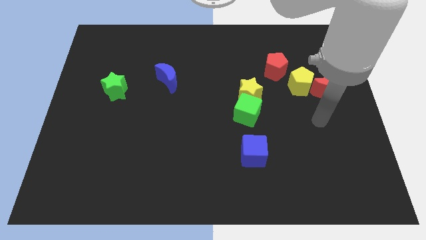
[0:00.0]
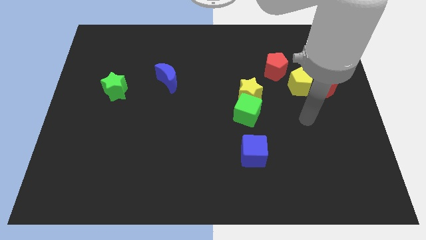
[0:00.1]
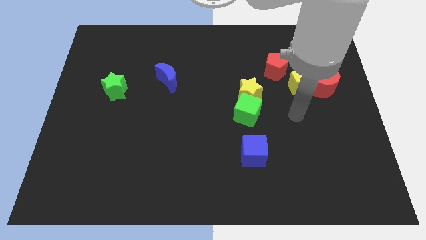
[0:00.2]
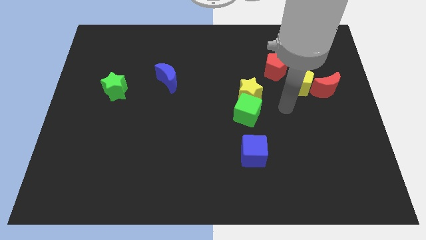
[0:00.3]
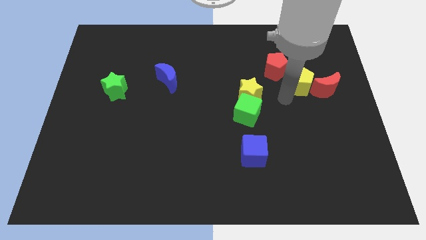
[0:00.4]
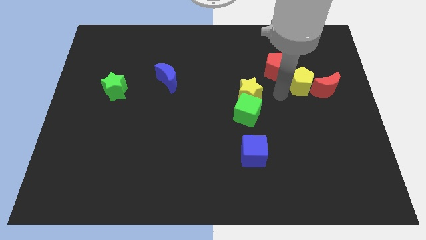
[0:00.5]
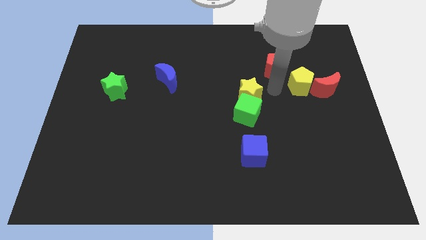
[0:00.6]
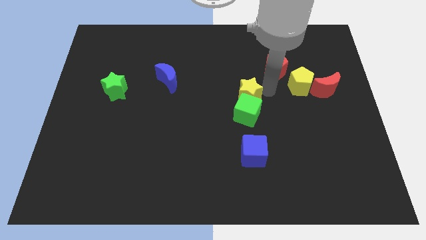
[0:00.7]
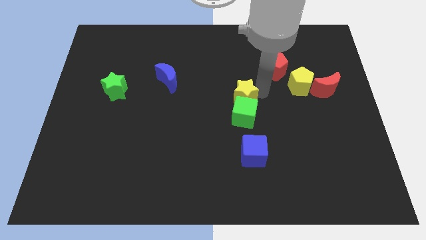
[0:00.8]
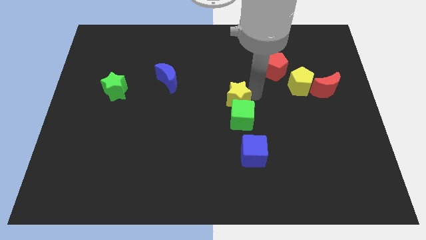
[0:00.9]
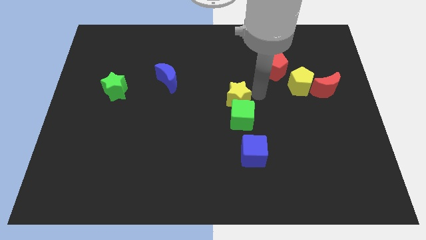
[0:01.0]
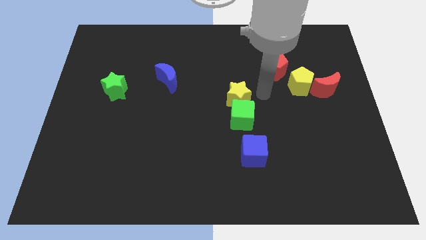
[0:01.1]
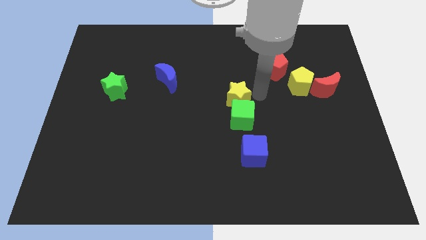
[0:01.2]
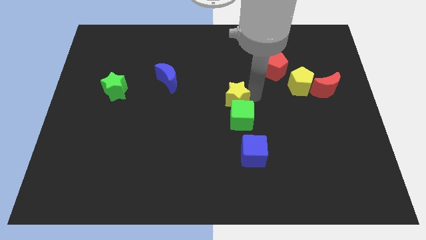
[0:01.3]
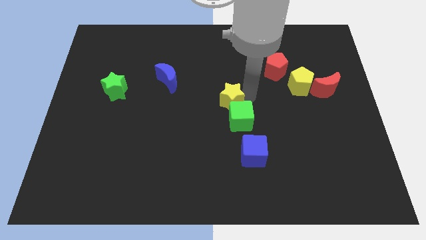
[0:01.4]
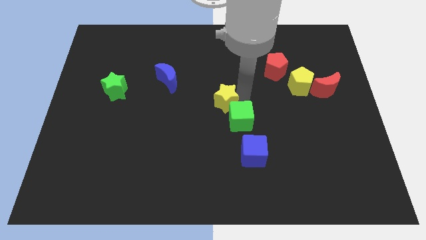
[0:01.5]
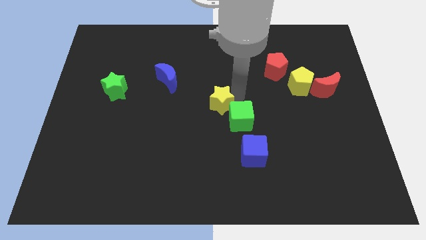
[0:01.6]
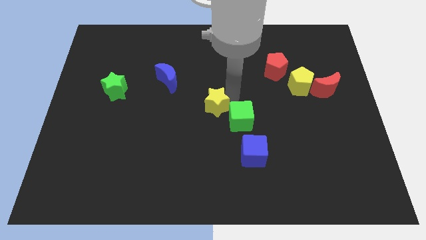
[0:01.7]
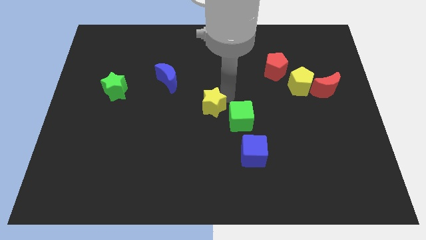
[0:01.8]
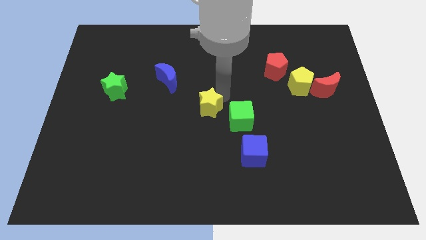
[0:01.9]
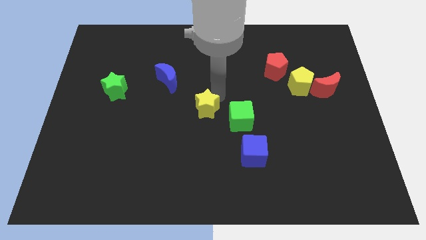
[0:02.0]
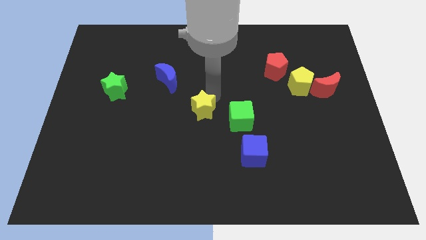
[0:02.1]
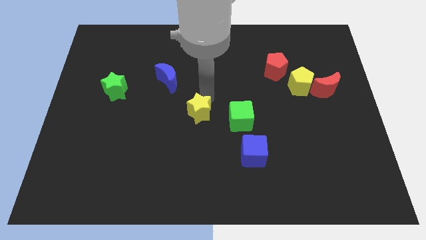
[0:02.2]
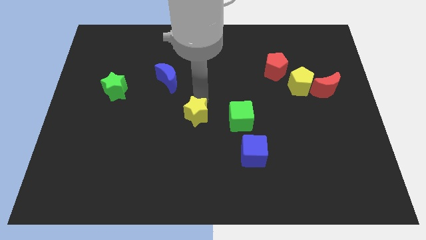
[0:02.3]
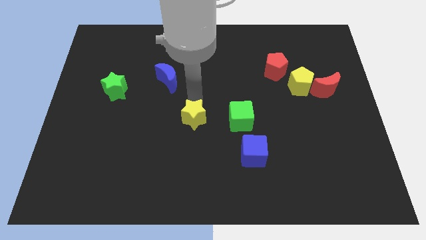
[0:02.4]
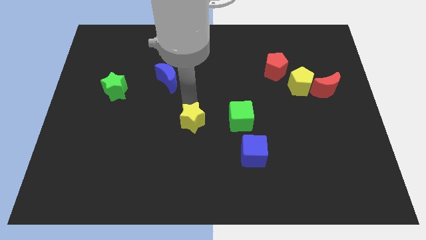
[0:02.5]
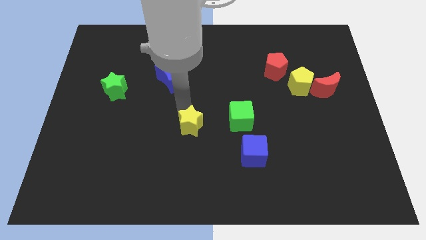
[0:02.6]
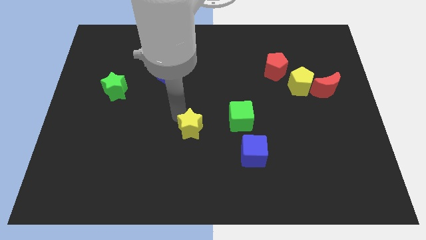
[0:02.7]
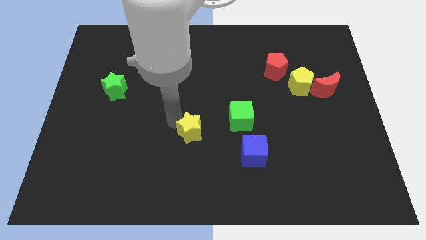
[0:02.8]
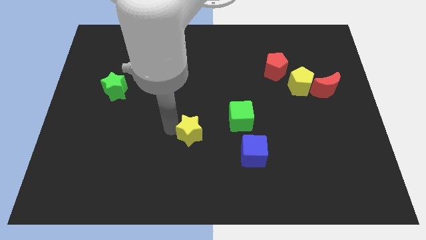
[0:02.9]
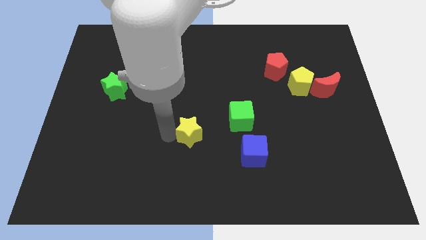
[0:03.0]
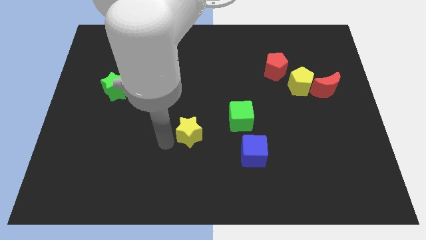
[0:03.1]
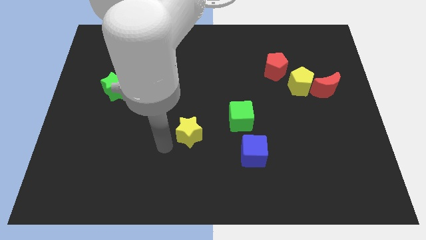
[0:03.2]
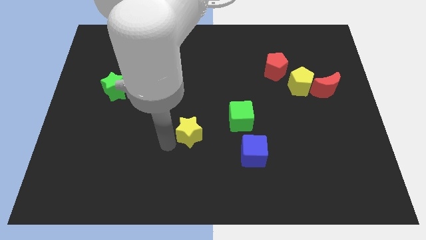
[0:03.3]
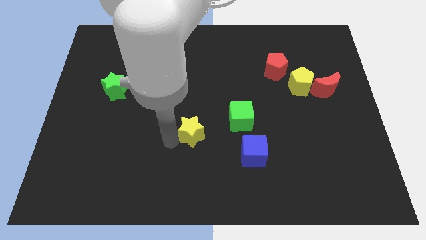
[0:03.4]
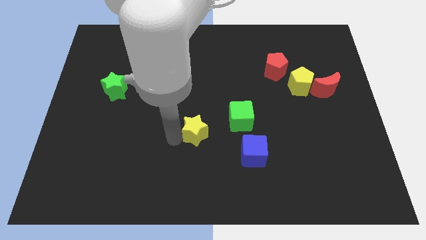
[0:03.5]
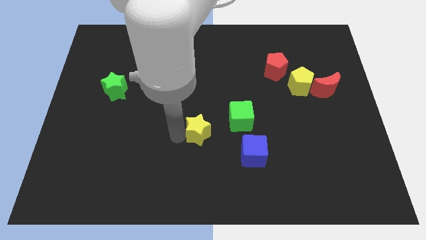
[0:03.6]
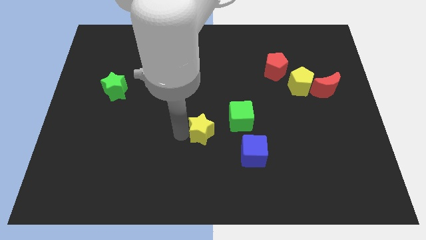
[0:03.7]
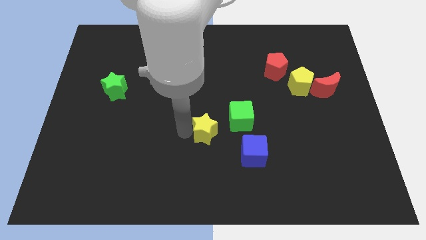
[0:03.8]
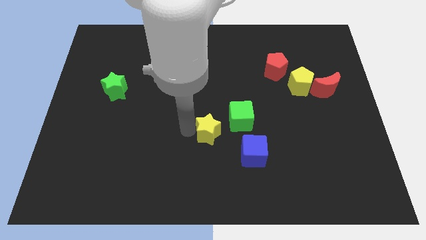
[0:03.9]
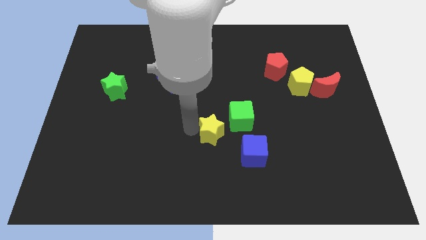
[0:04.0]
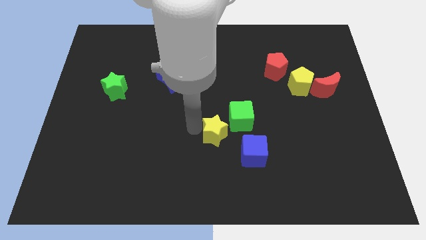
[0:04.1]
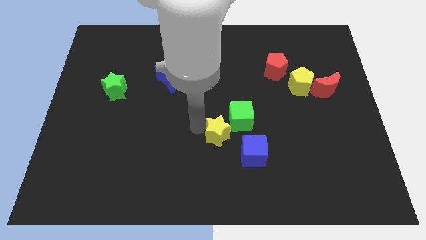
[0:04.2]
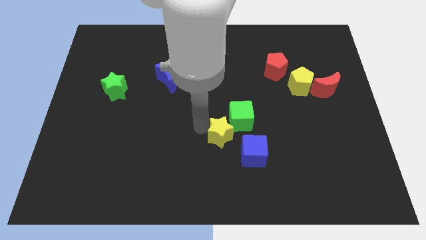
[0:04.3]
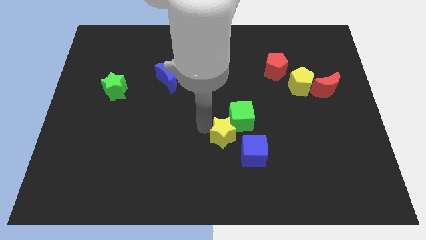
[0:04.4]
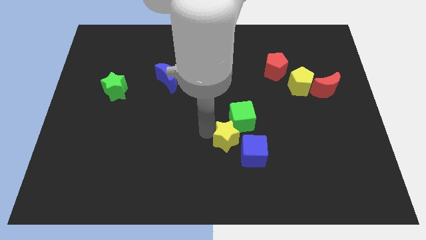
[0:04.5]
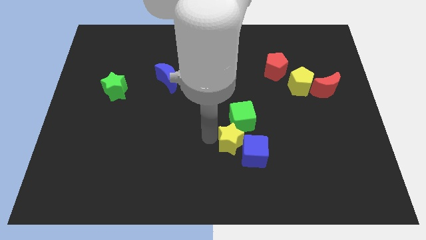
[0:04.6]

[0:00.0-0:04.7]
move the yellow star to the blue cube

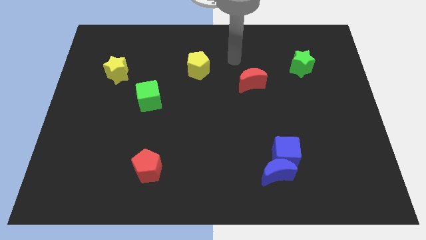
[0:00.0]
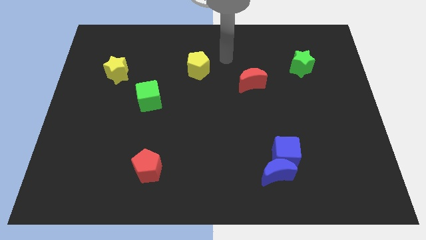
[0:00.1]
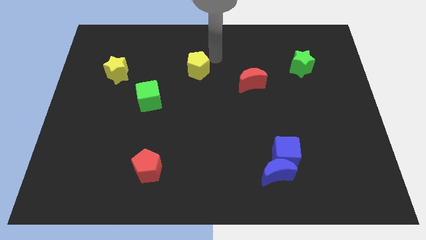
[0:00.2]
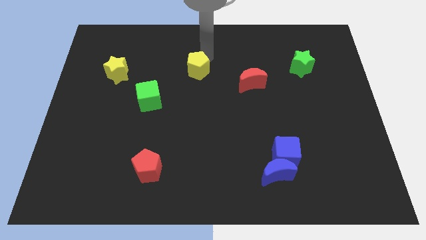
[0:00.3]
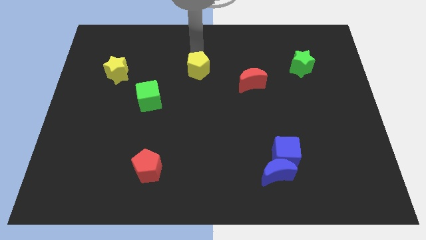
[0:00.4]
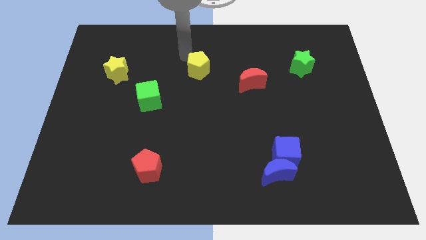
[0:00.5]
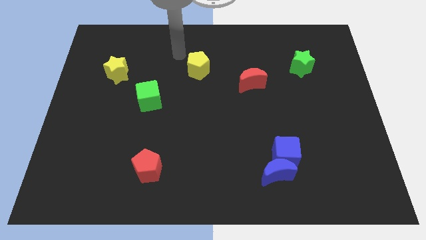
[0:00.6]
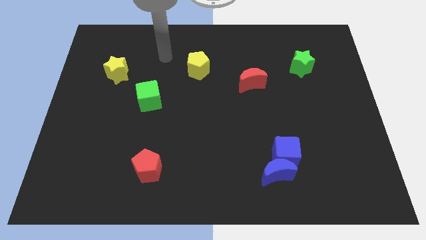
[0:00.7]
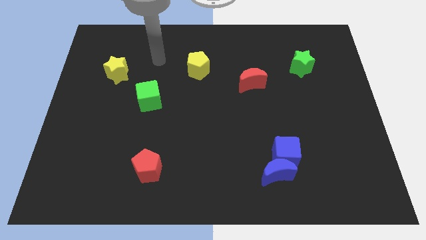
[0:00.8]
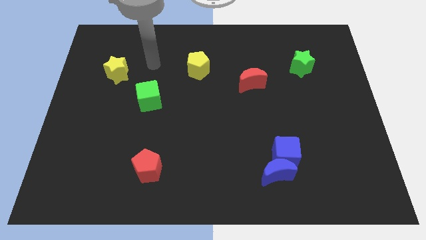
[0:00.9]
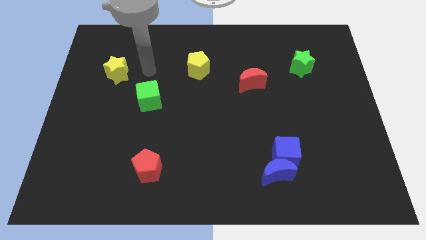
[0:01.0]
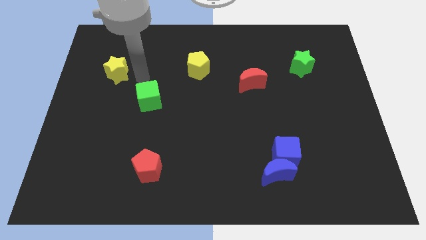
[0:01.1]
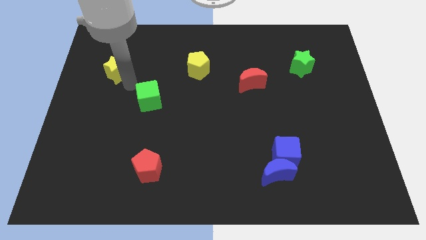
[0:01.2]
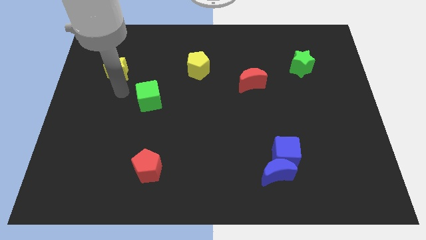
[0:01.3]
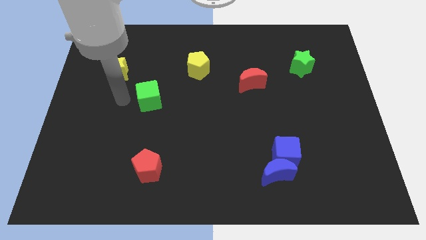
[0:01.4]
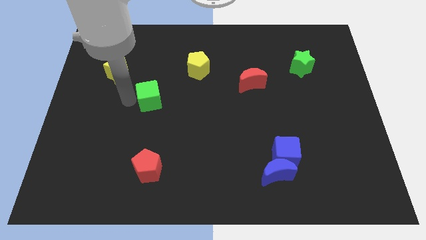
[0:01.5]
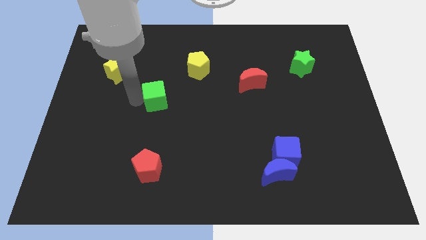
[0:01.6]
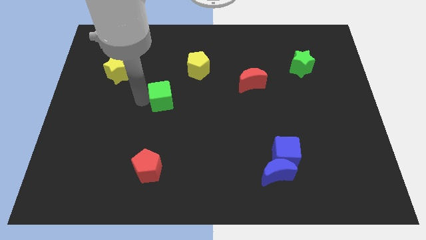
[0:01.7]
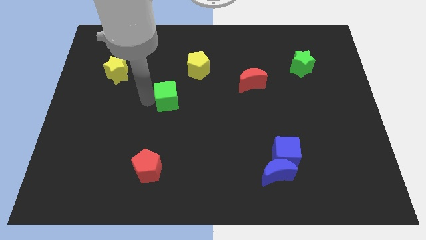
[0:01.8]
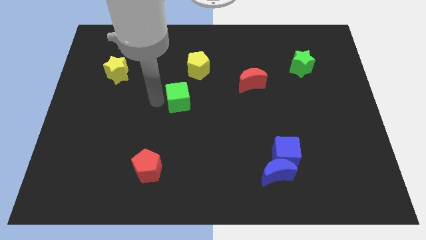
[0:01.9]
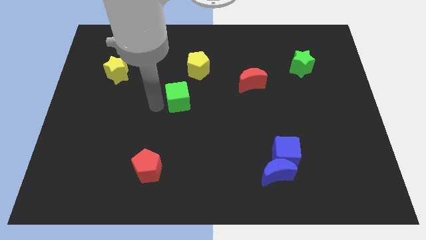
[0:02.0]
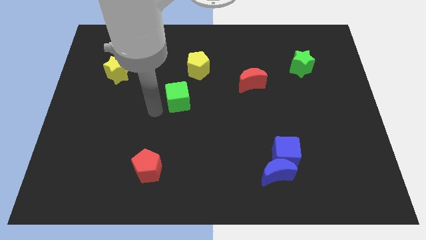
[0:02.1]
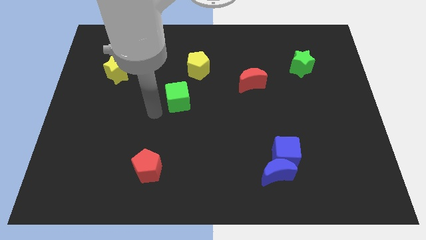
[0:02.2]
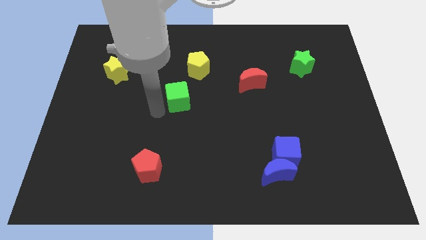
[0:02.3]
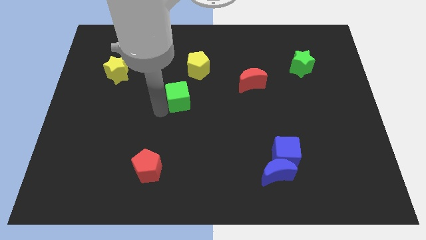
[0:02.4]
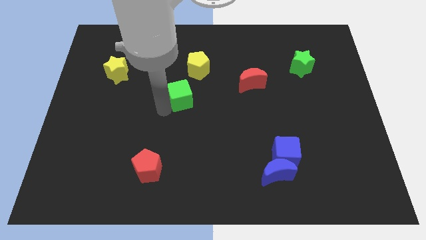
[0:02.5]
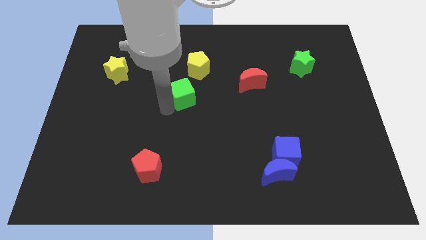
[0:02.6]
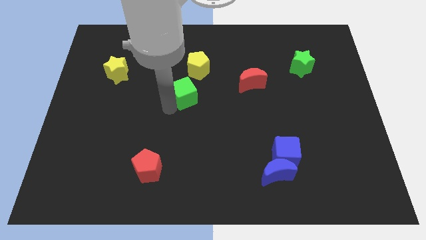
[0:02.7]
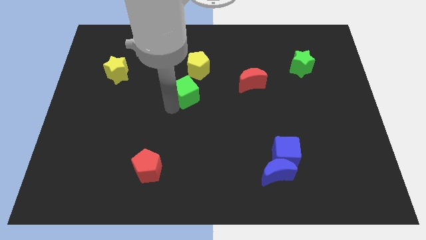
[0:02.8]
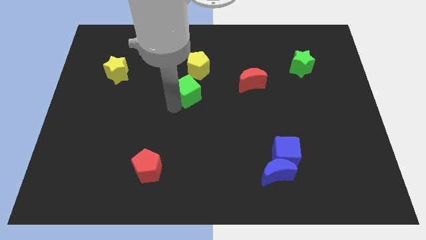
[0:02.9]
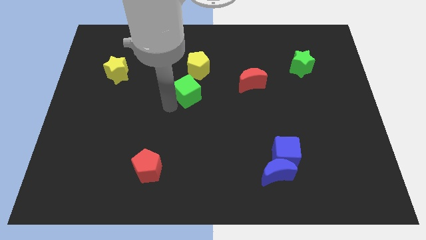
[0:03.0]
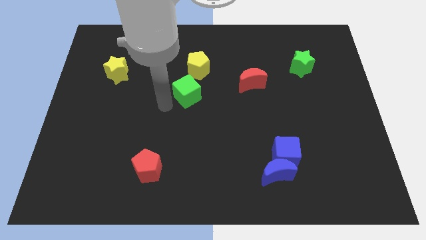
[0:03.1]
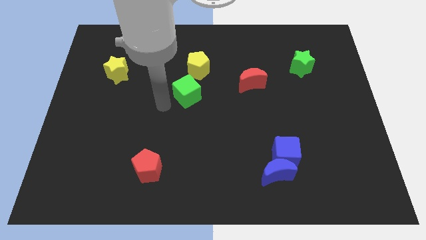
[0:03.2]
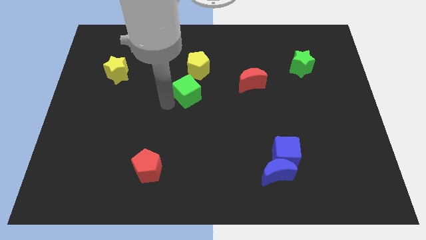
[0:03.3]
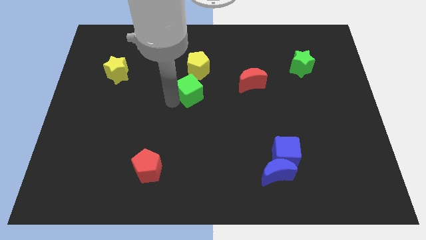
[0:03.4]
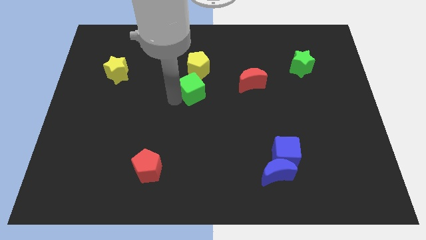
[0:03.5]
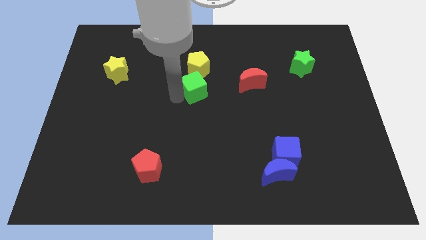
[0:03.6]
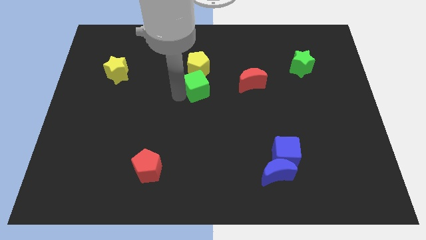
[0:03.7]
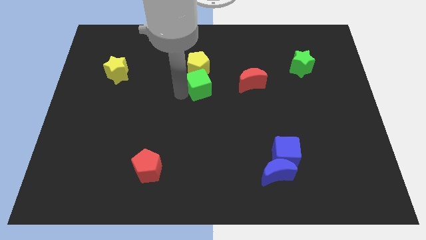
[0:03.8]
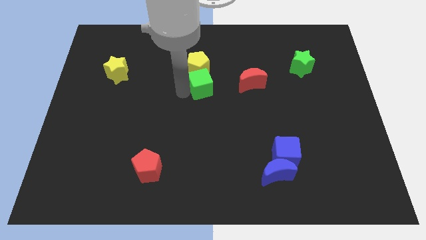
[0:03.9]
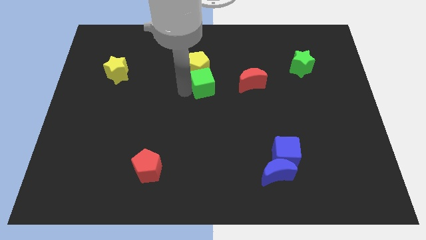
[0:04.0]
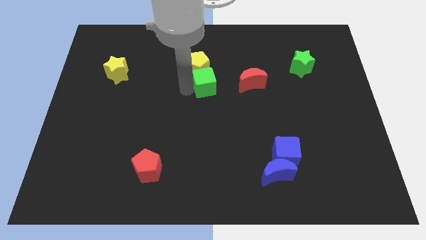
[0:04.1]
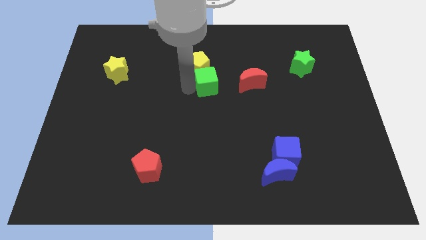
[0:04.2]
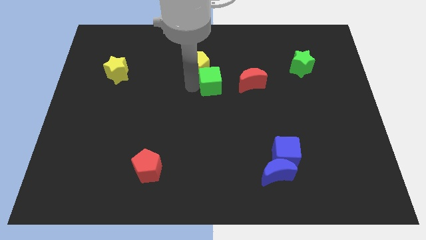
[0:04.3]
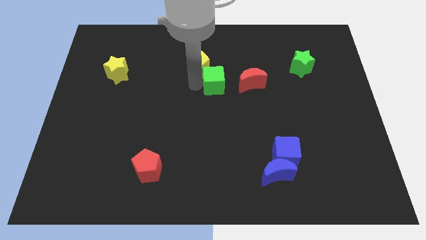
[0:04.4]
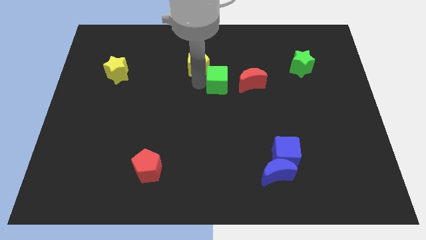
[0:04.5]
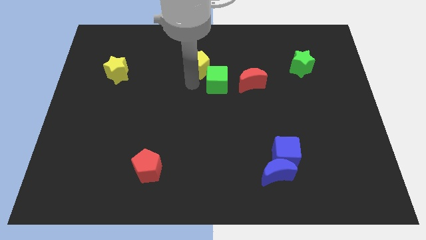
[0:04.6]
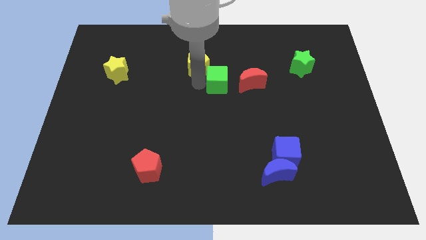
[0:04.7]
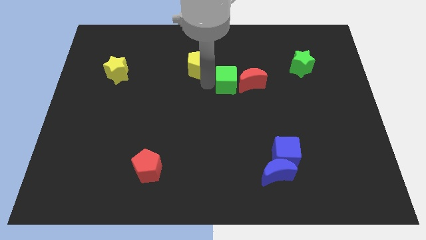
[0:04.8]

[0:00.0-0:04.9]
put the green cube next to the red moon
